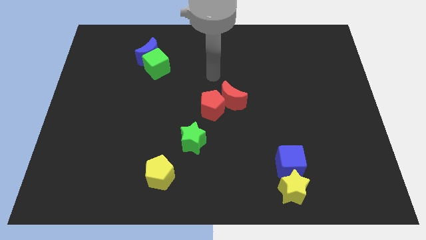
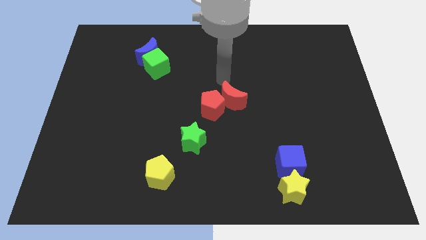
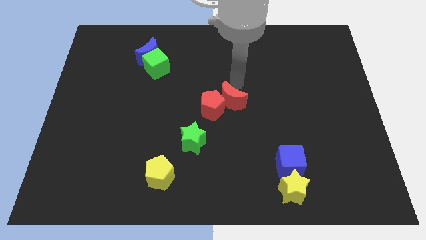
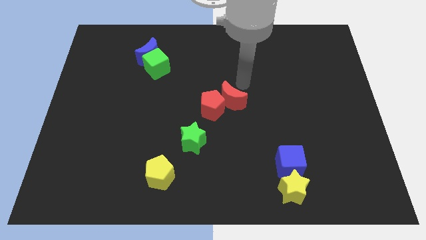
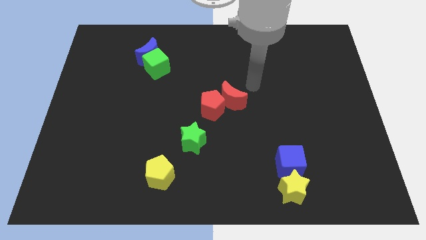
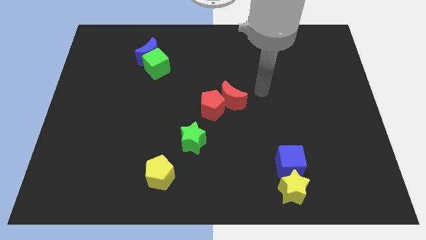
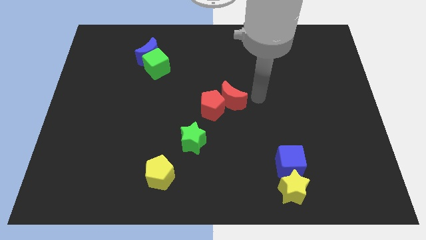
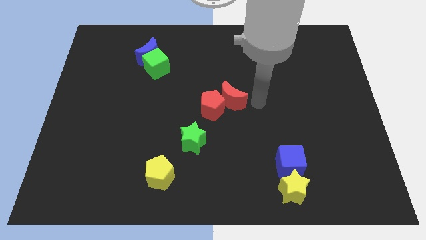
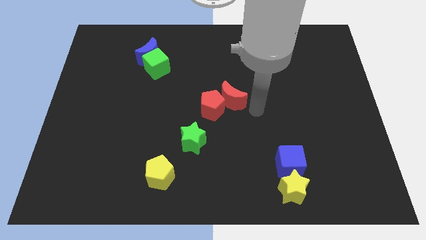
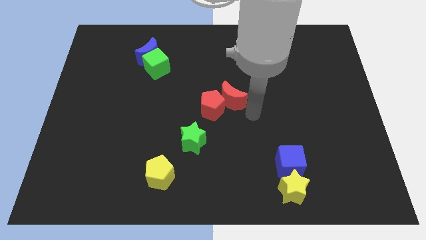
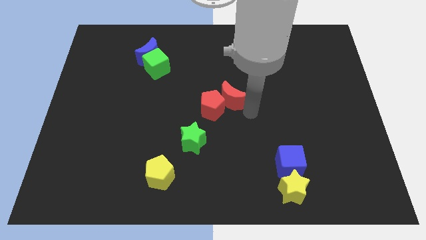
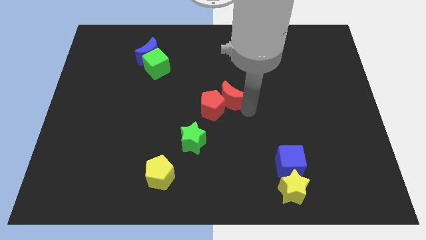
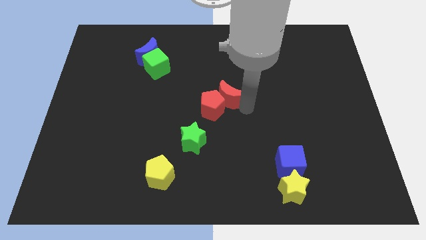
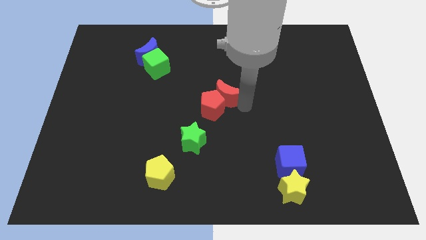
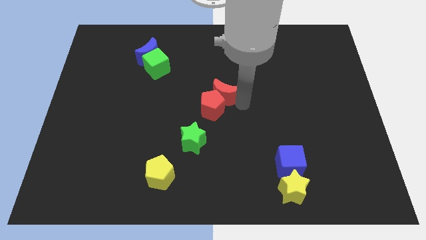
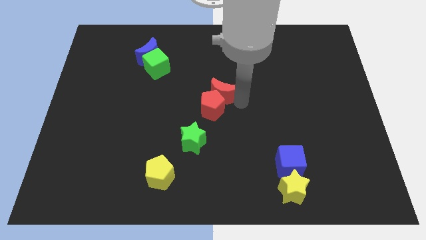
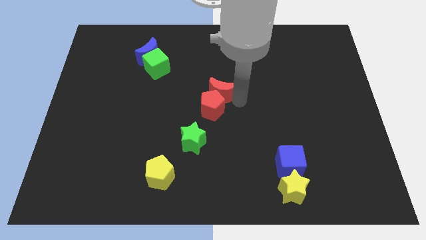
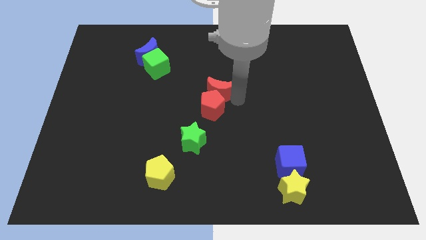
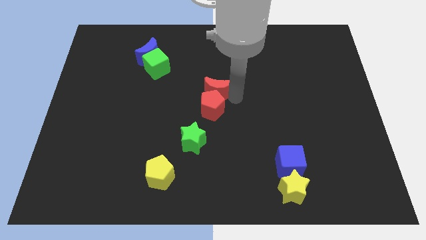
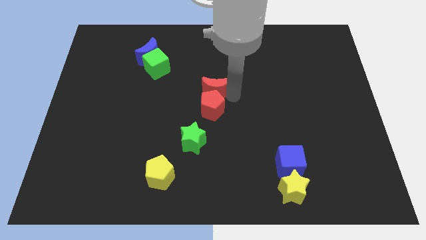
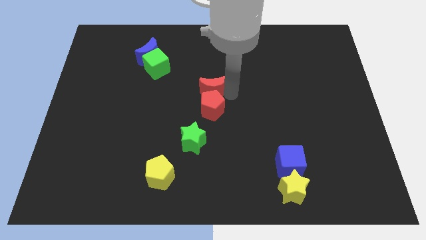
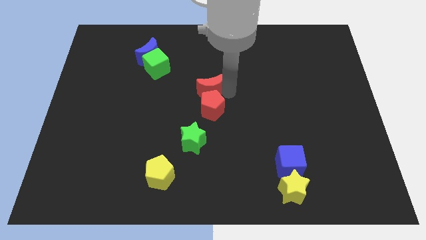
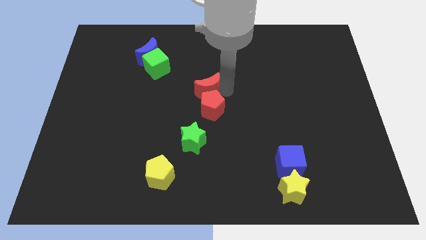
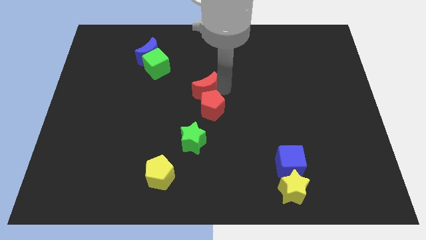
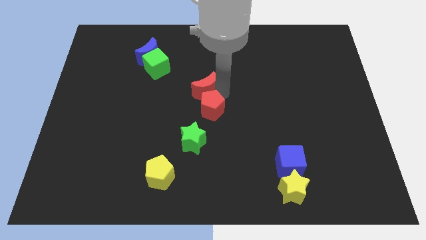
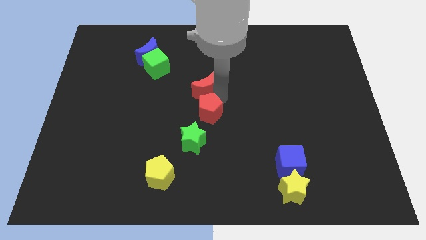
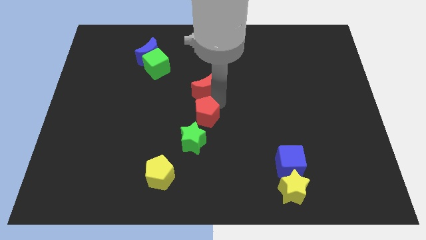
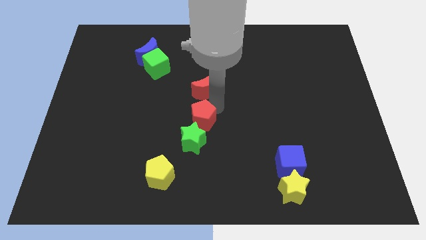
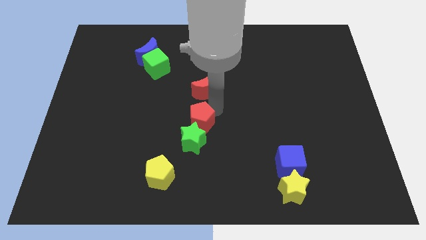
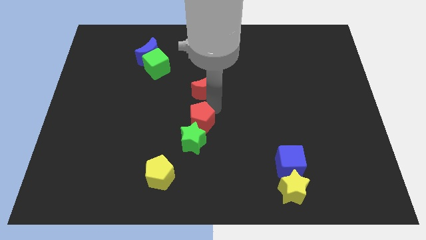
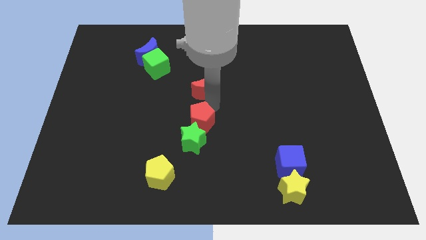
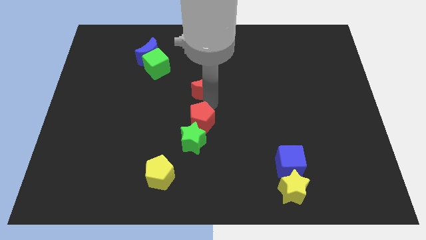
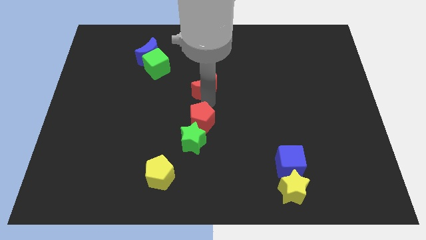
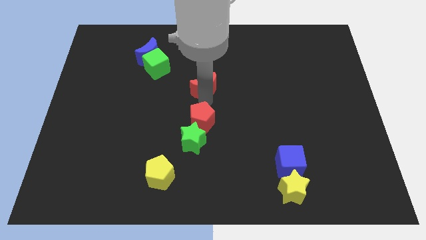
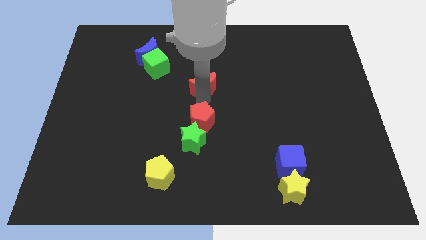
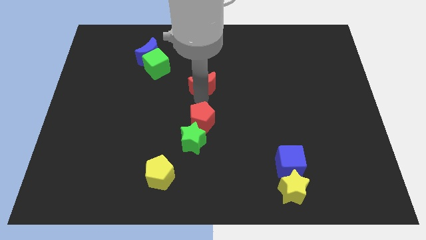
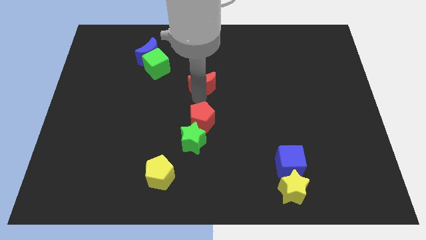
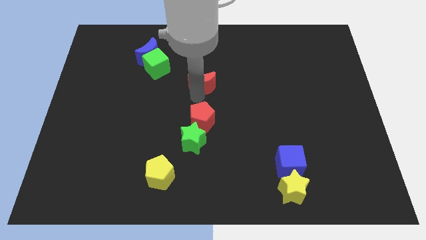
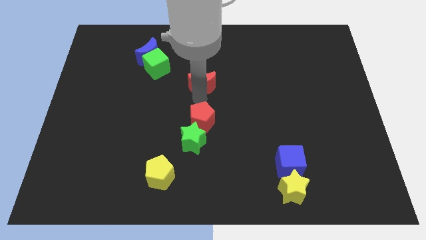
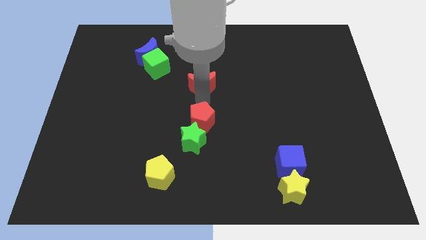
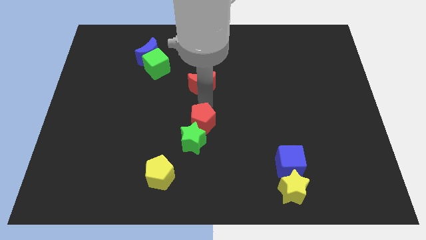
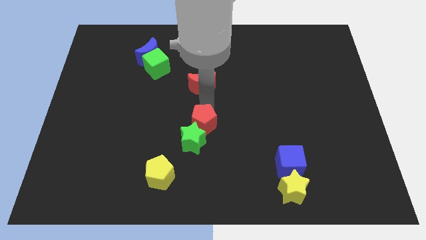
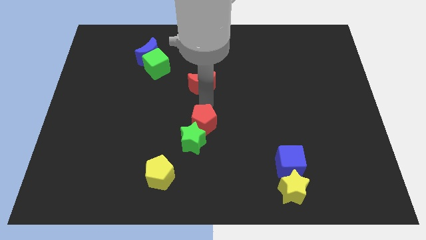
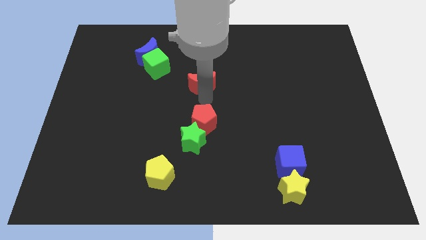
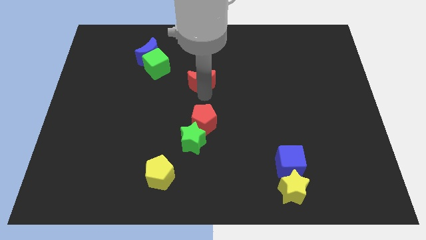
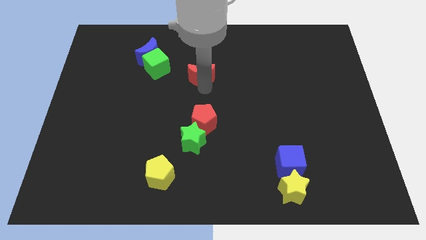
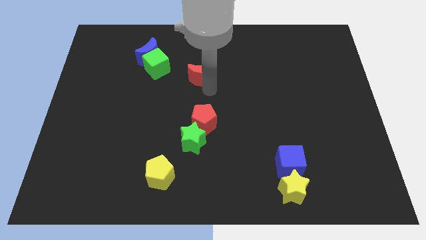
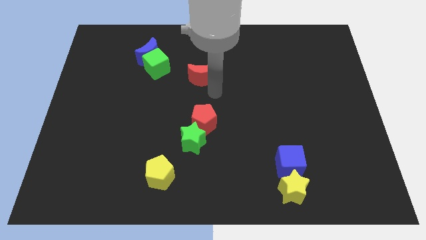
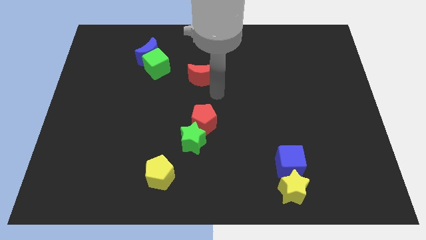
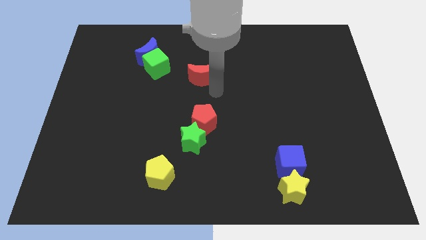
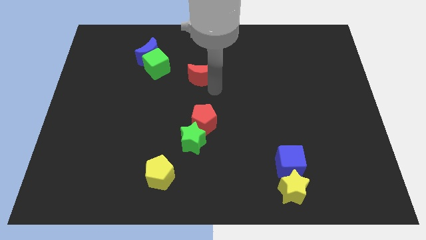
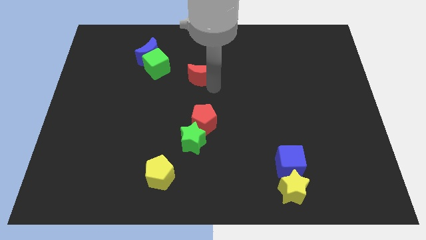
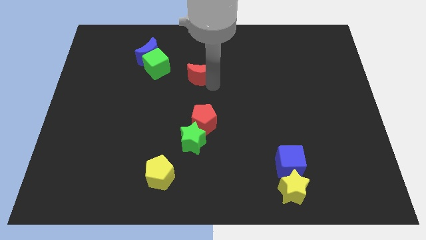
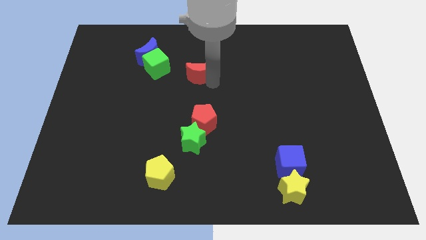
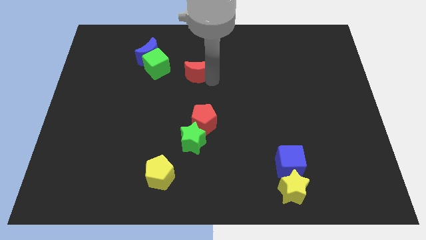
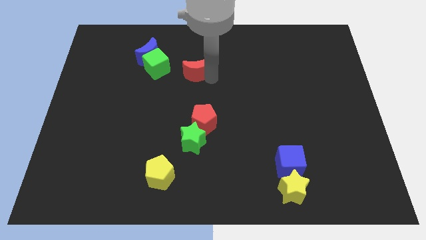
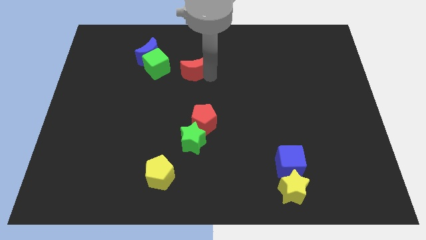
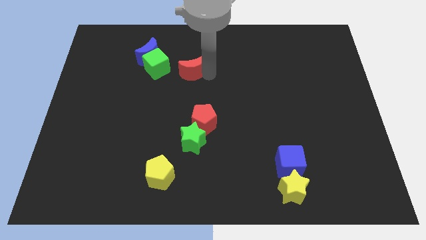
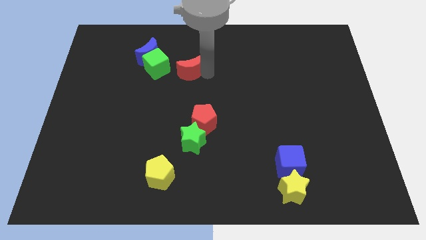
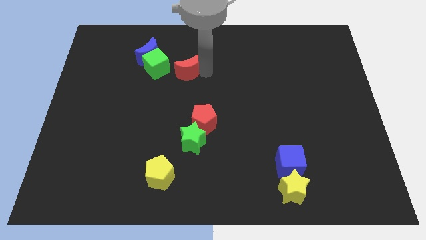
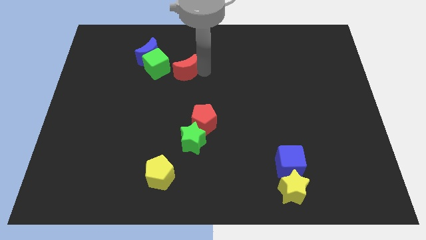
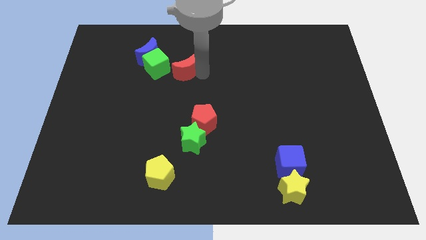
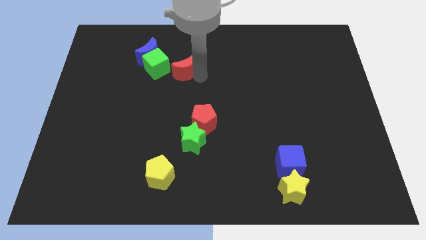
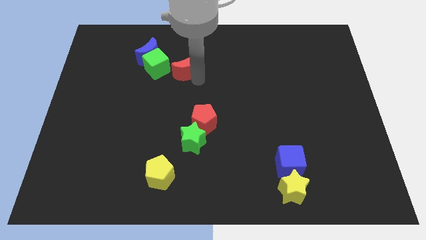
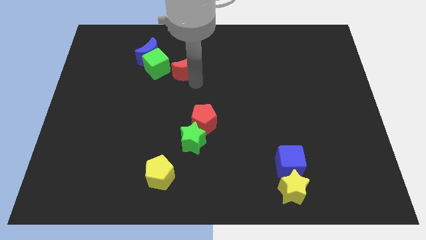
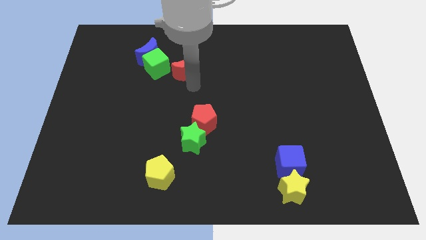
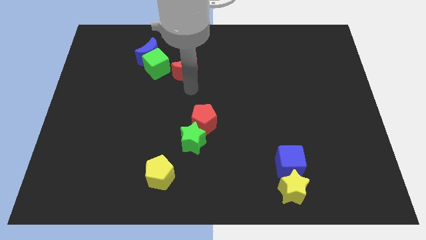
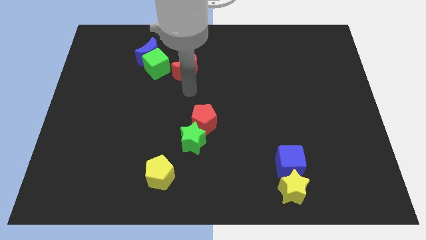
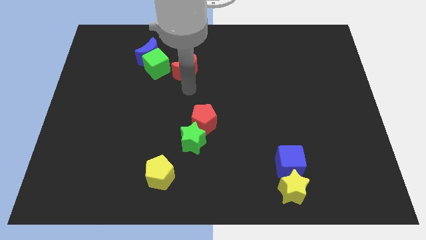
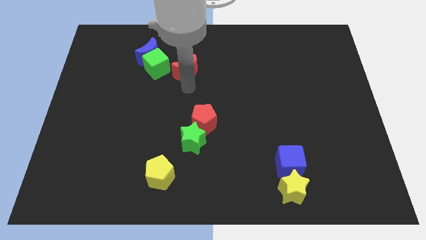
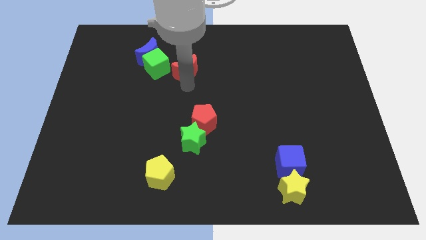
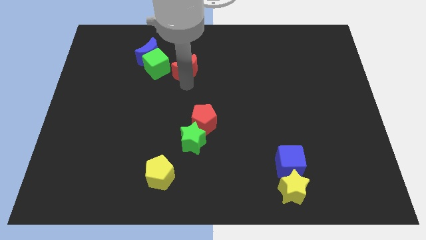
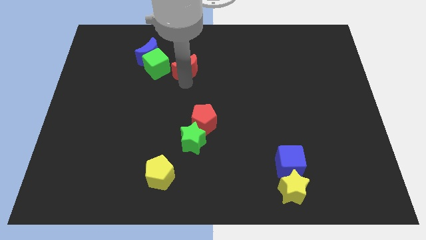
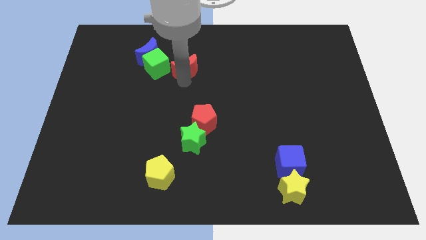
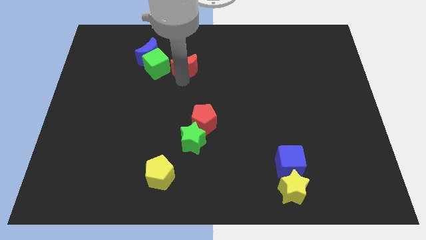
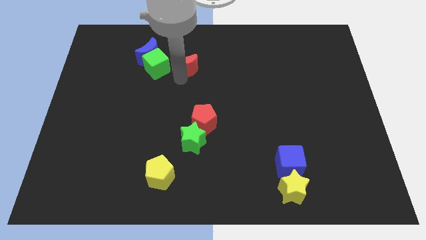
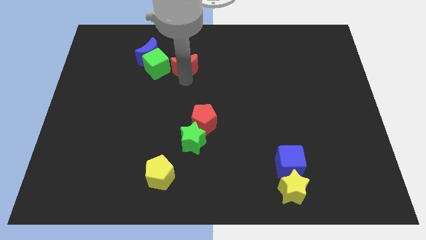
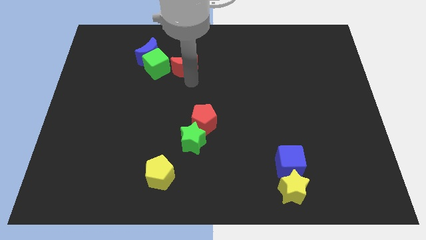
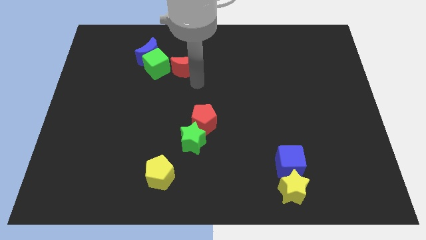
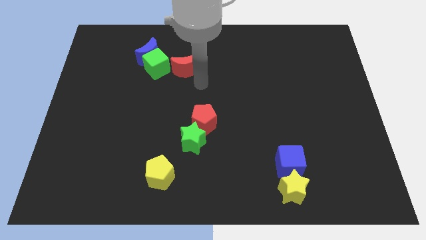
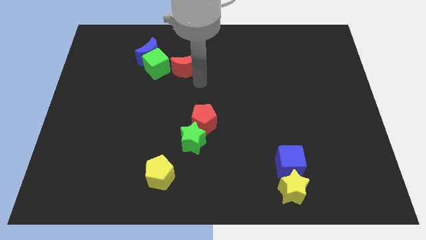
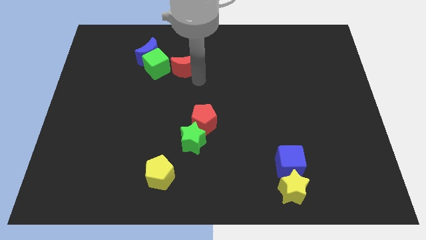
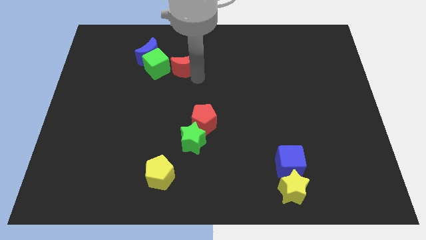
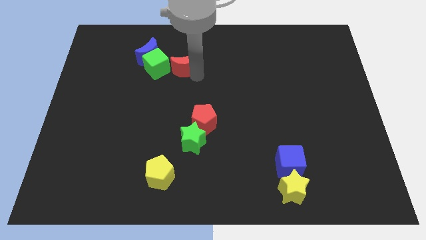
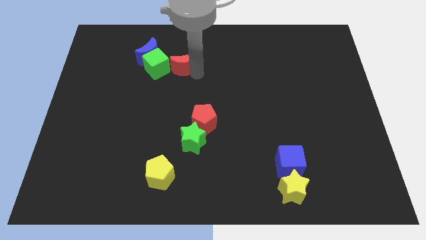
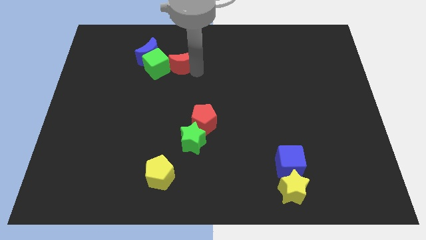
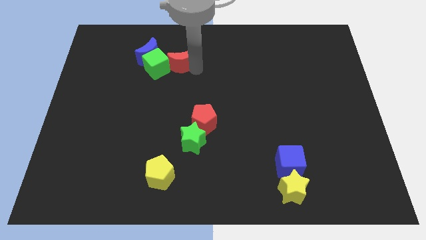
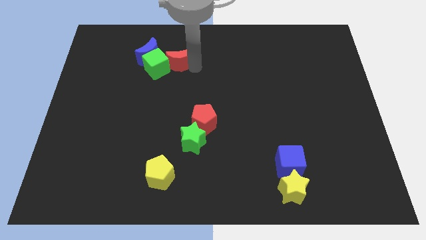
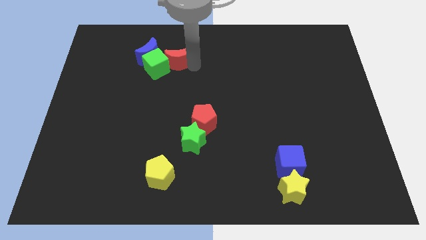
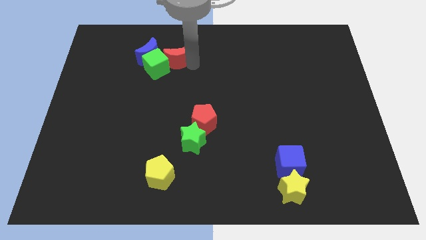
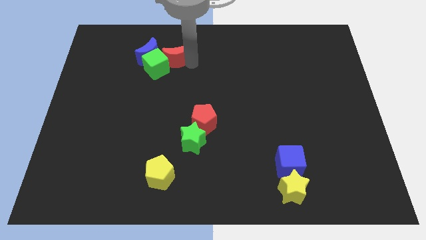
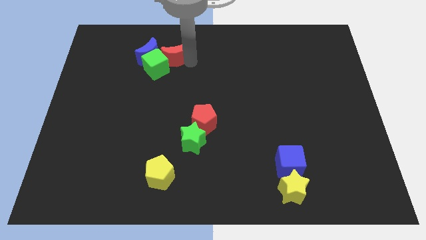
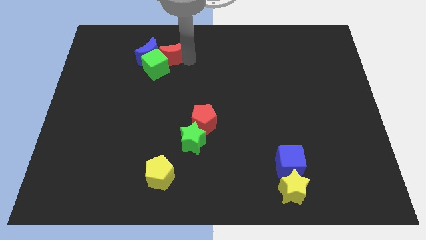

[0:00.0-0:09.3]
put the red moon close to the blue moon
